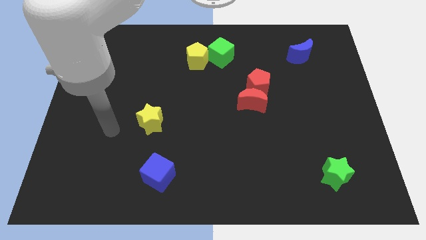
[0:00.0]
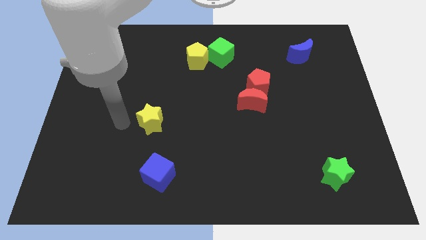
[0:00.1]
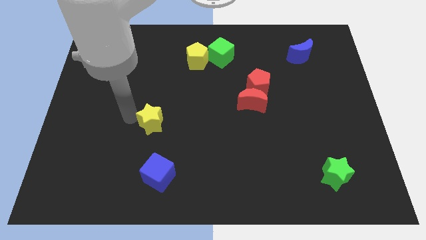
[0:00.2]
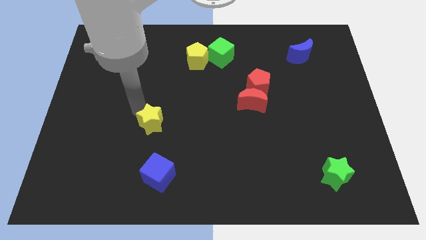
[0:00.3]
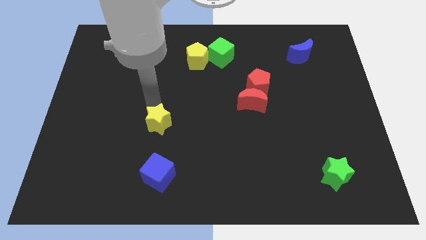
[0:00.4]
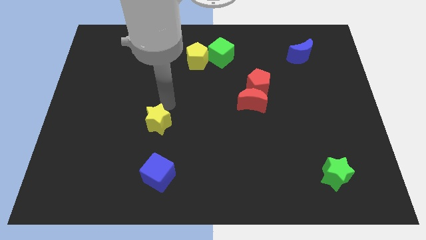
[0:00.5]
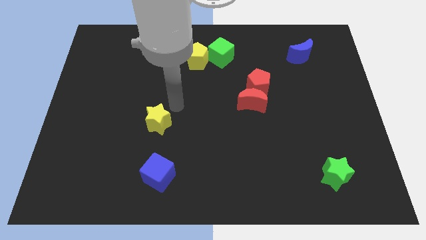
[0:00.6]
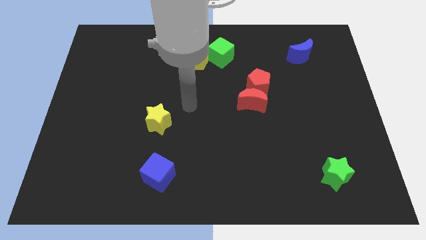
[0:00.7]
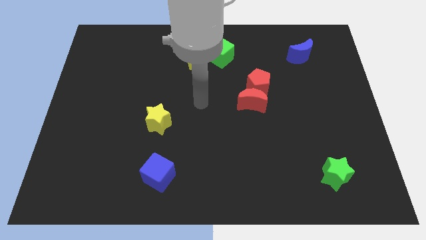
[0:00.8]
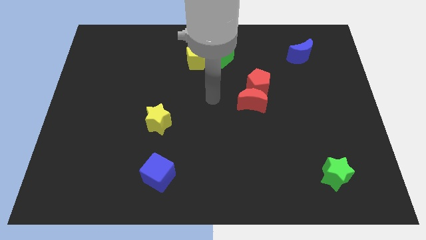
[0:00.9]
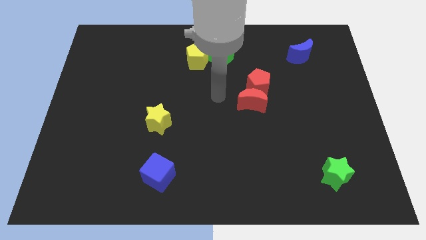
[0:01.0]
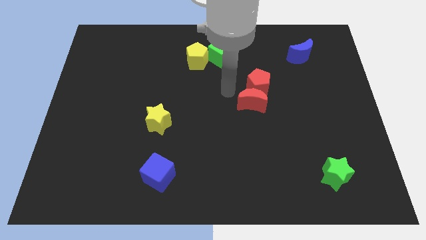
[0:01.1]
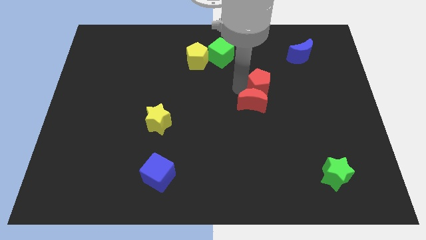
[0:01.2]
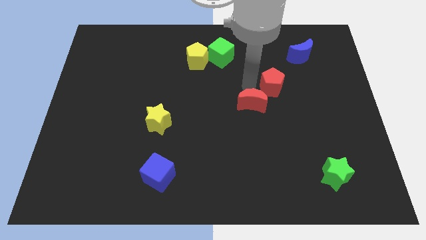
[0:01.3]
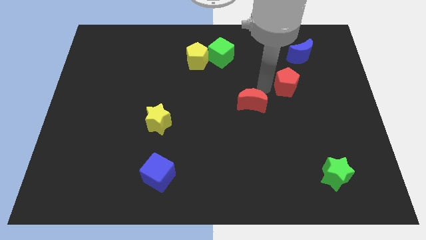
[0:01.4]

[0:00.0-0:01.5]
move the red moon away from the red pentagon

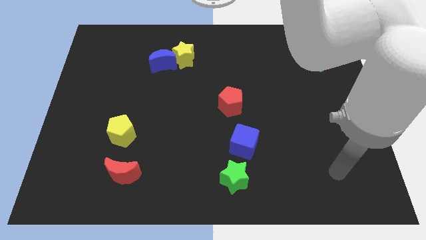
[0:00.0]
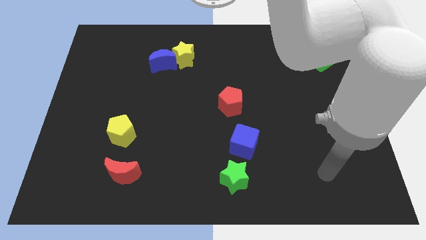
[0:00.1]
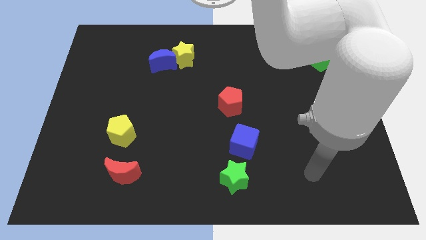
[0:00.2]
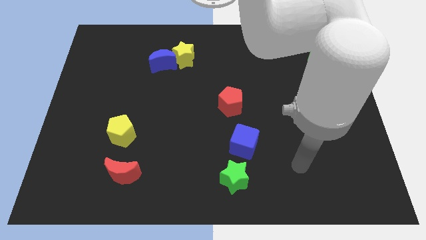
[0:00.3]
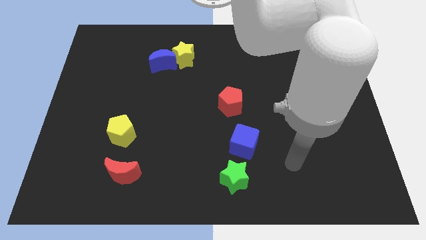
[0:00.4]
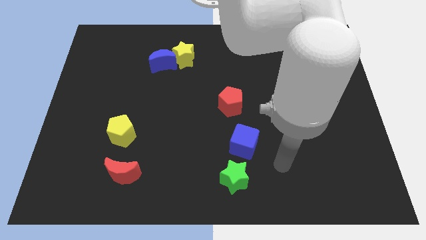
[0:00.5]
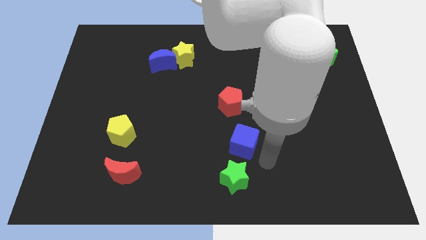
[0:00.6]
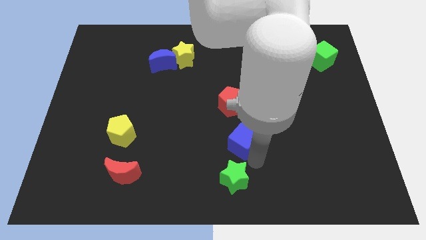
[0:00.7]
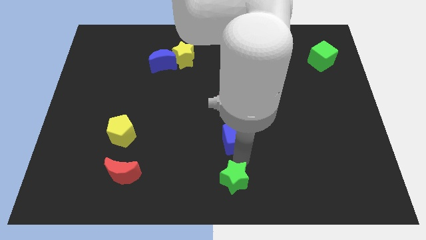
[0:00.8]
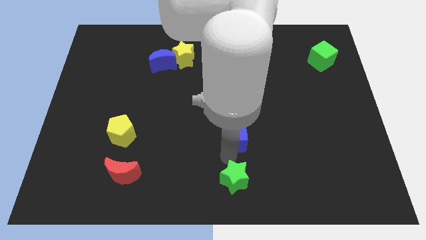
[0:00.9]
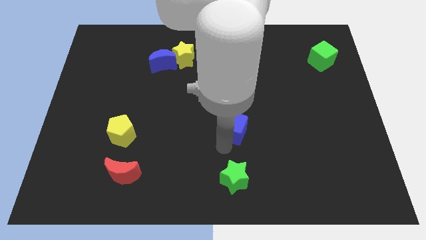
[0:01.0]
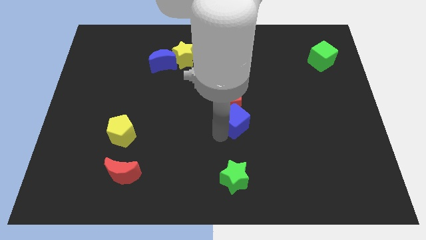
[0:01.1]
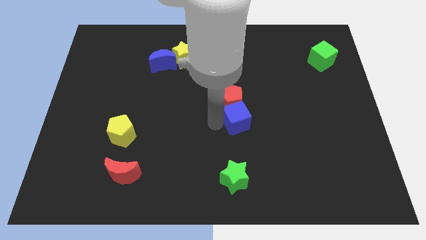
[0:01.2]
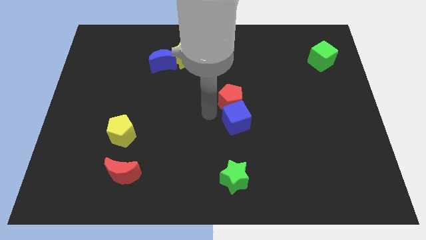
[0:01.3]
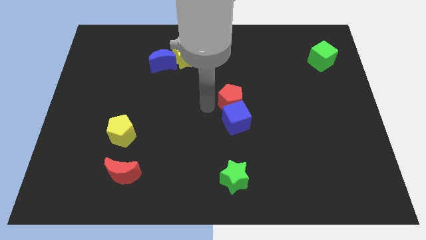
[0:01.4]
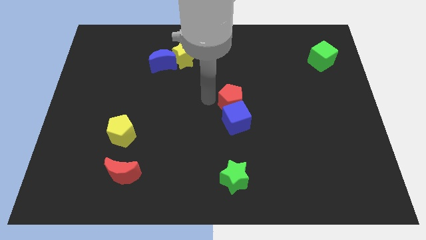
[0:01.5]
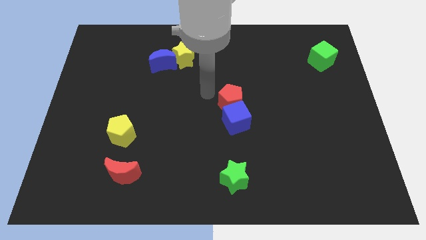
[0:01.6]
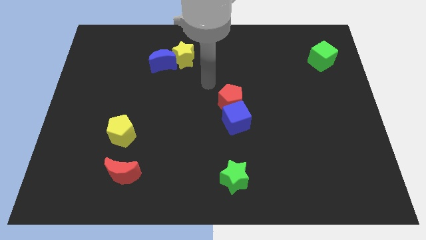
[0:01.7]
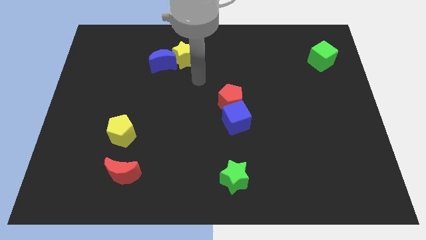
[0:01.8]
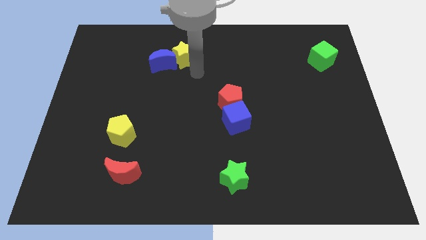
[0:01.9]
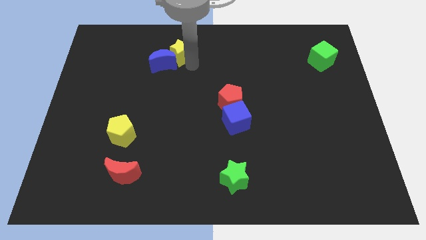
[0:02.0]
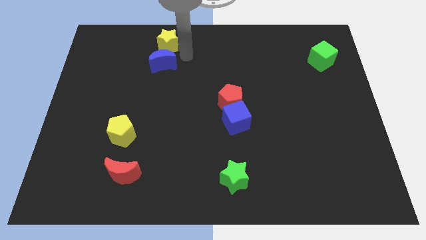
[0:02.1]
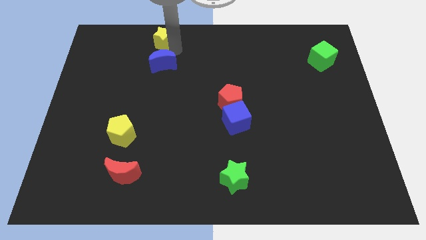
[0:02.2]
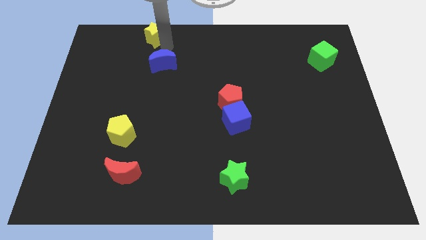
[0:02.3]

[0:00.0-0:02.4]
move the blue moon away from the yellow star

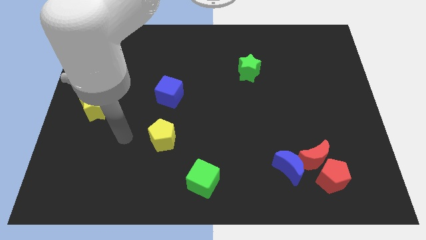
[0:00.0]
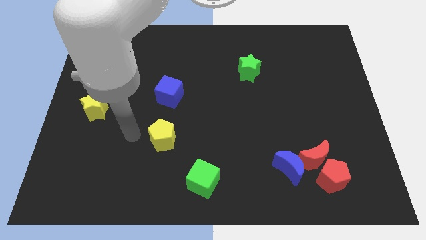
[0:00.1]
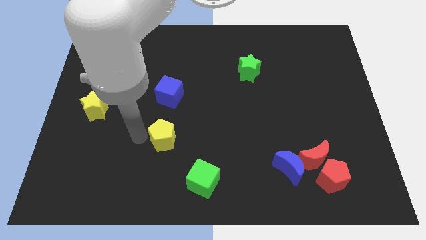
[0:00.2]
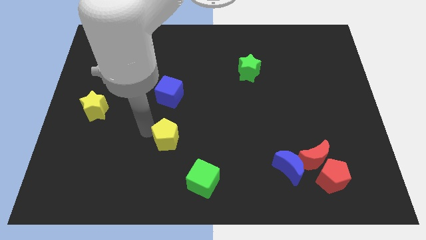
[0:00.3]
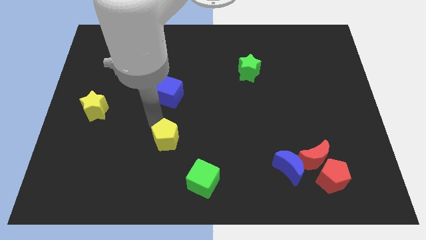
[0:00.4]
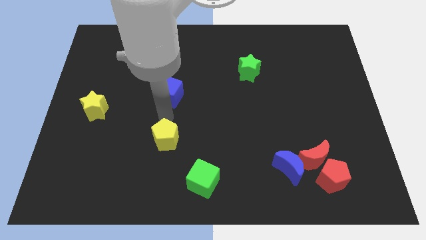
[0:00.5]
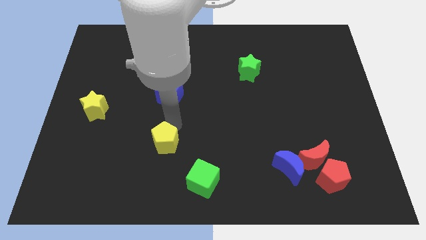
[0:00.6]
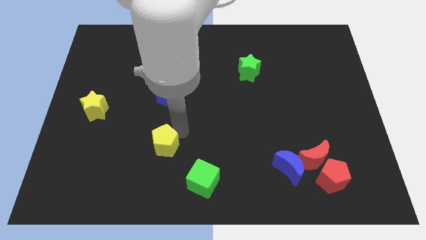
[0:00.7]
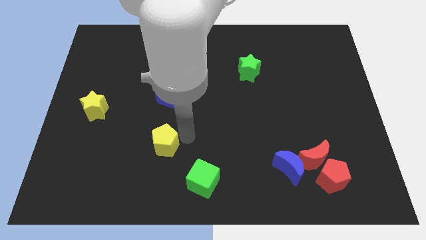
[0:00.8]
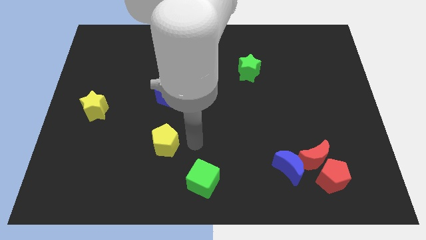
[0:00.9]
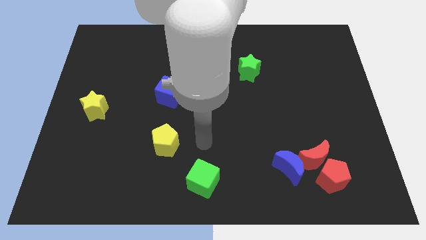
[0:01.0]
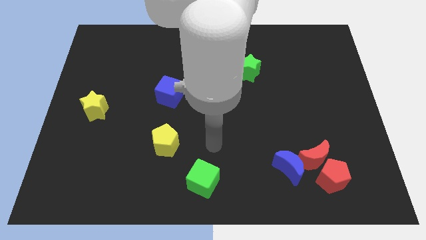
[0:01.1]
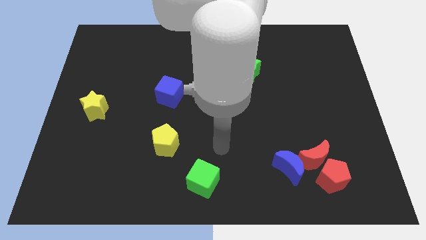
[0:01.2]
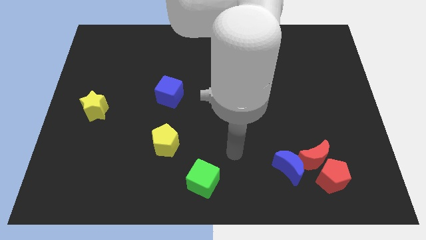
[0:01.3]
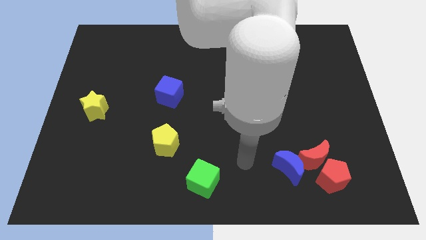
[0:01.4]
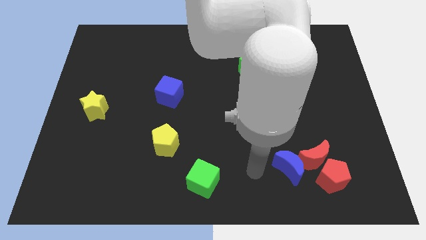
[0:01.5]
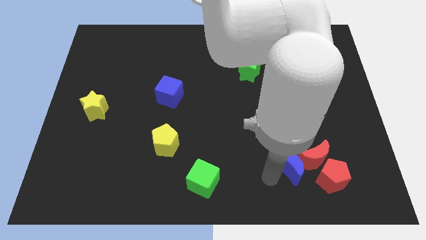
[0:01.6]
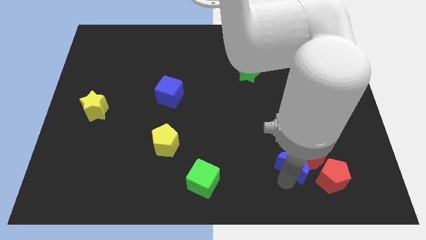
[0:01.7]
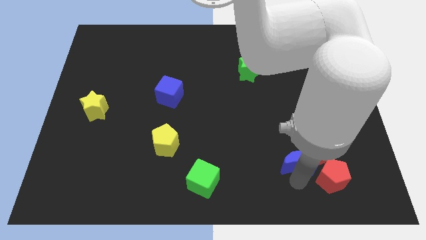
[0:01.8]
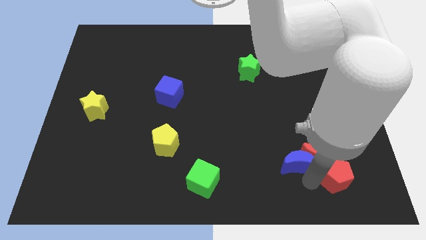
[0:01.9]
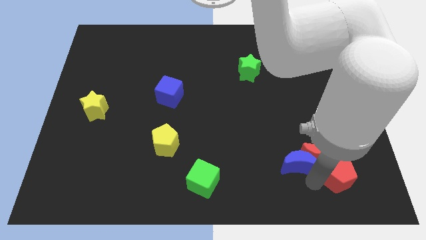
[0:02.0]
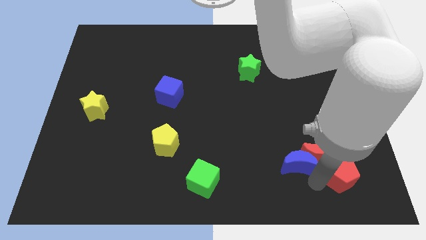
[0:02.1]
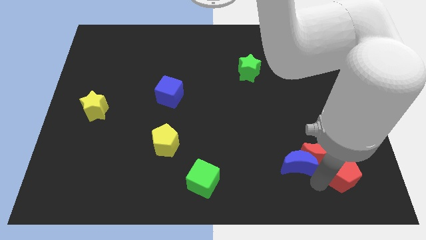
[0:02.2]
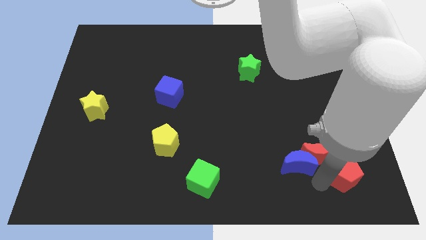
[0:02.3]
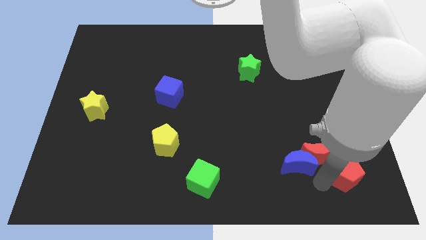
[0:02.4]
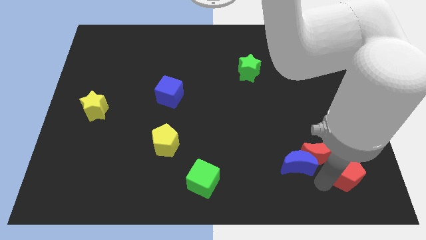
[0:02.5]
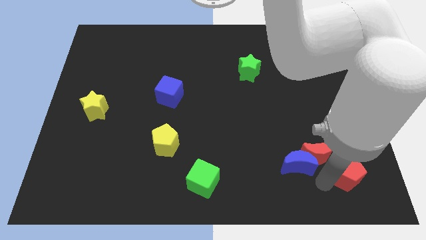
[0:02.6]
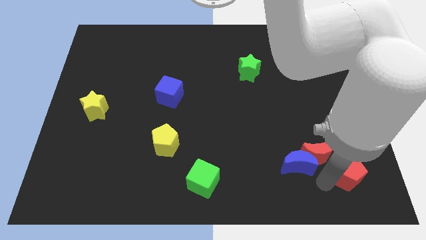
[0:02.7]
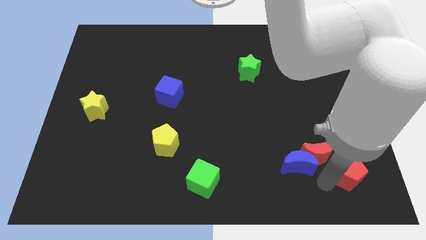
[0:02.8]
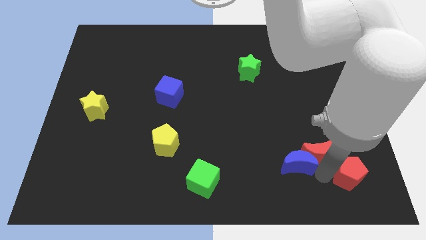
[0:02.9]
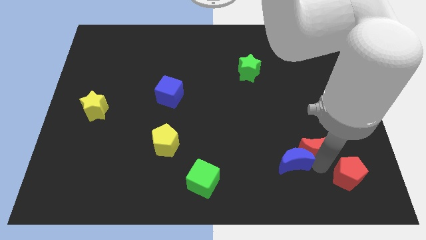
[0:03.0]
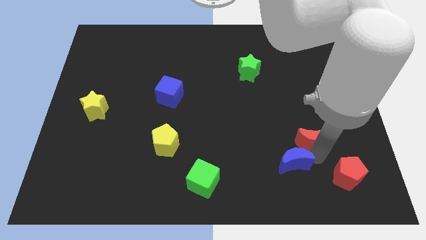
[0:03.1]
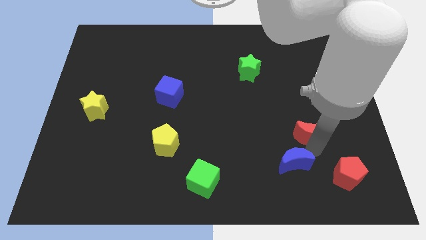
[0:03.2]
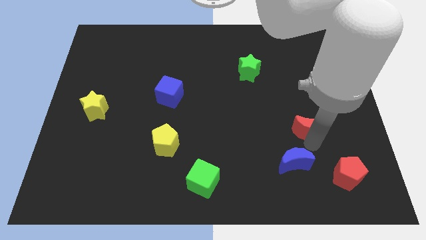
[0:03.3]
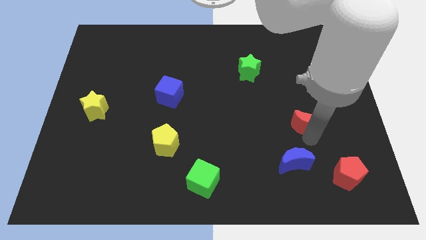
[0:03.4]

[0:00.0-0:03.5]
pull the red moon apart from the red pentagon and blue moon

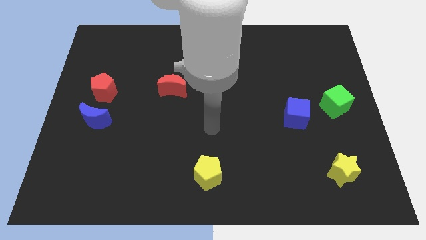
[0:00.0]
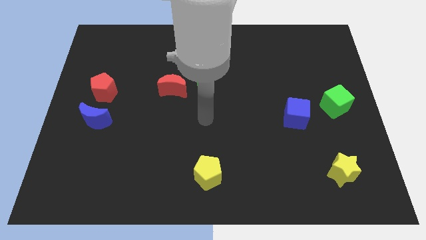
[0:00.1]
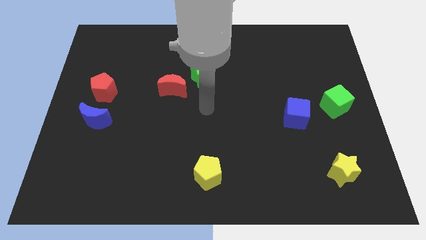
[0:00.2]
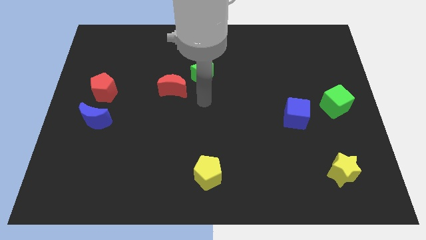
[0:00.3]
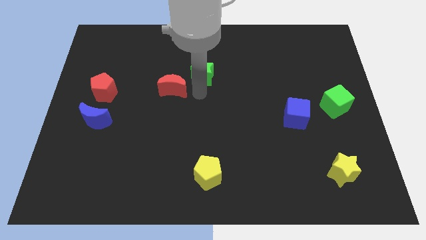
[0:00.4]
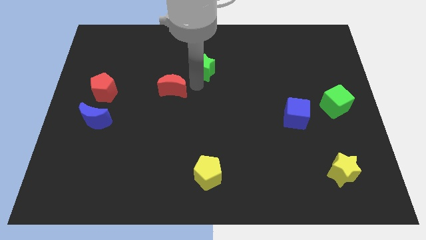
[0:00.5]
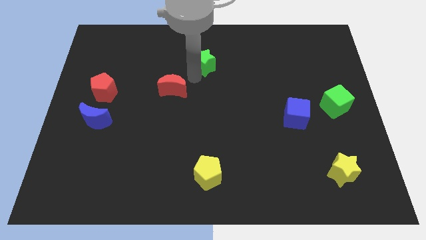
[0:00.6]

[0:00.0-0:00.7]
separate the red moon from the green star

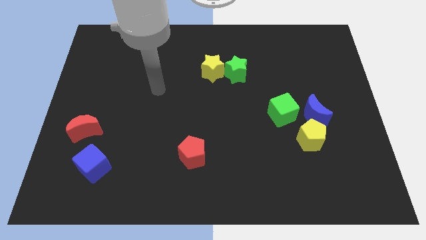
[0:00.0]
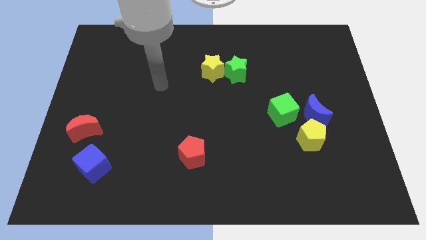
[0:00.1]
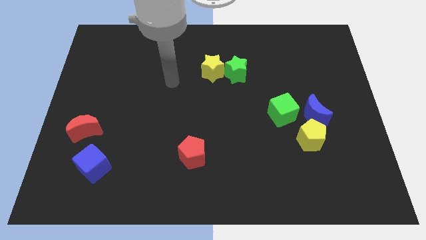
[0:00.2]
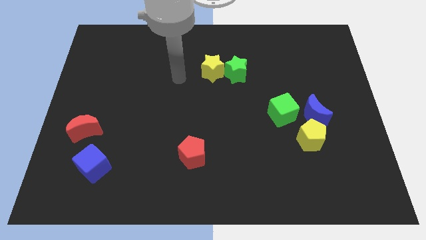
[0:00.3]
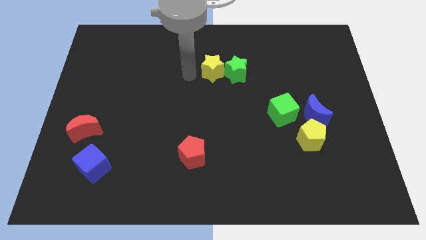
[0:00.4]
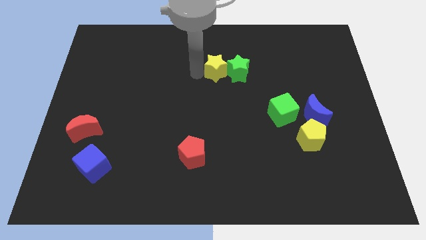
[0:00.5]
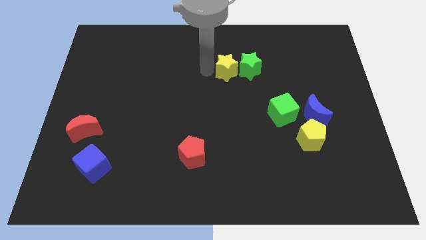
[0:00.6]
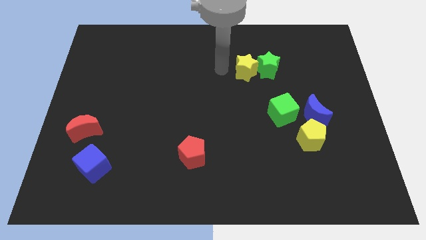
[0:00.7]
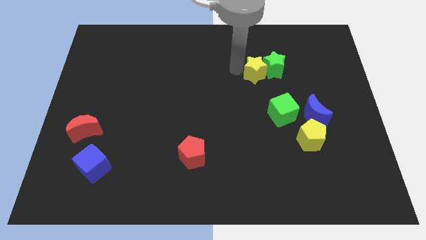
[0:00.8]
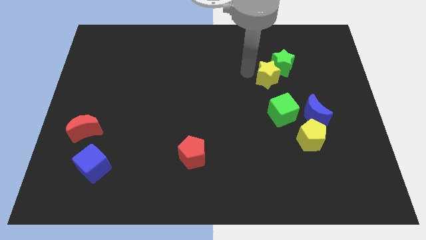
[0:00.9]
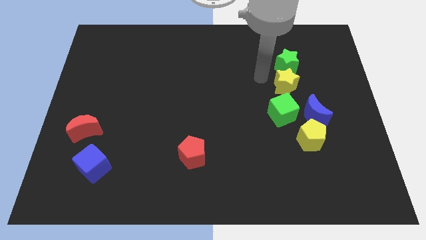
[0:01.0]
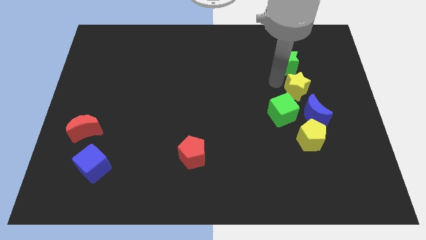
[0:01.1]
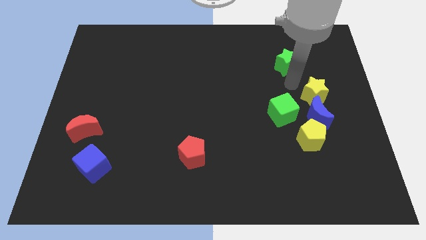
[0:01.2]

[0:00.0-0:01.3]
move the green star away from the yellow star
